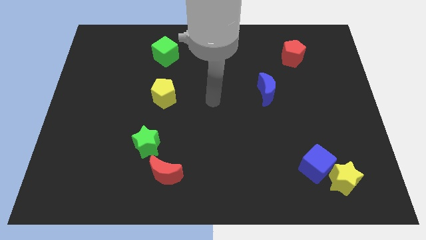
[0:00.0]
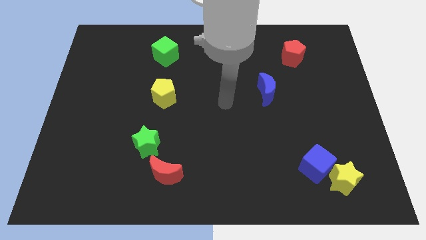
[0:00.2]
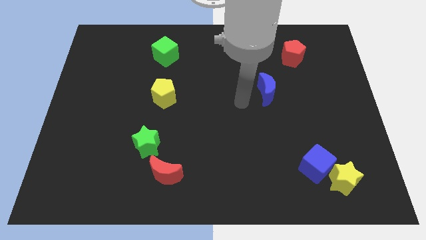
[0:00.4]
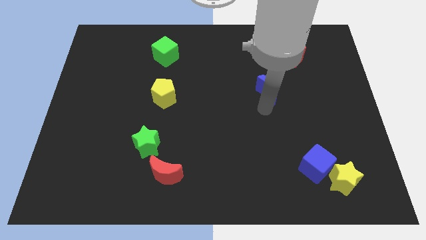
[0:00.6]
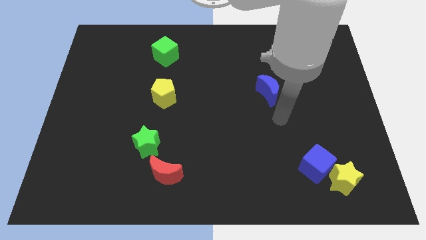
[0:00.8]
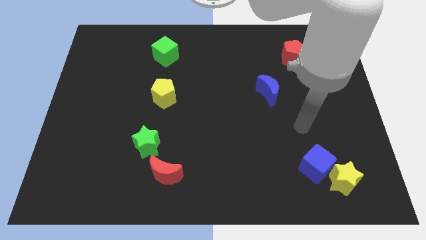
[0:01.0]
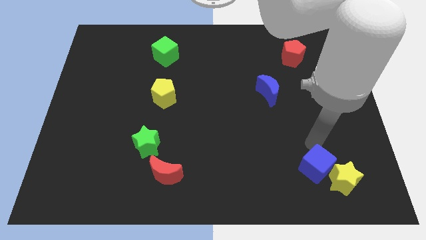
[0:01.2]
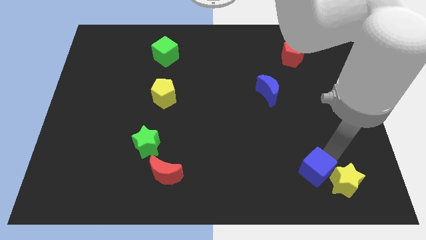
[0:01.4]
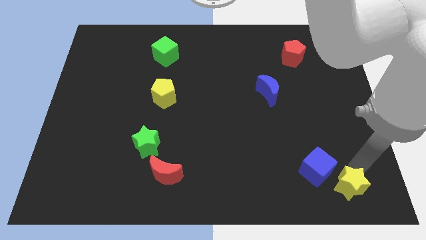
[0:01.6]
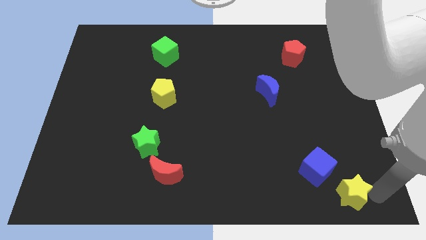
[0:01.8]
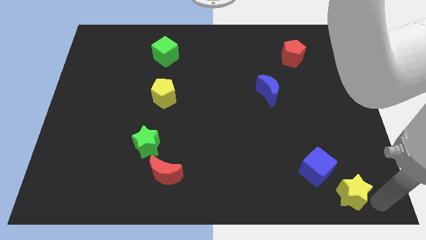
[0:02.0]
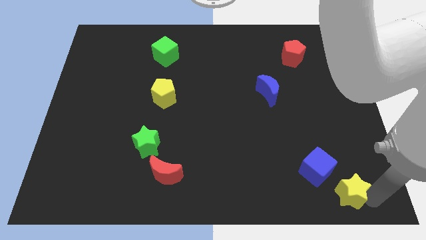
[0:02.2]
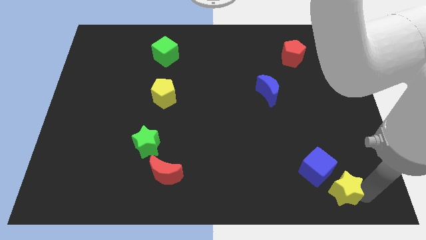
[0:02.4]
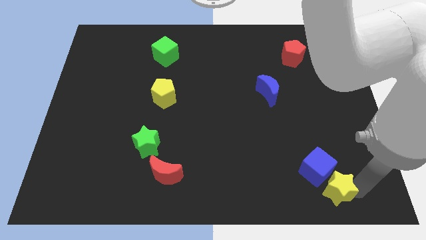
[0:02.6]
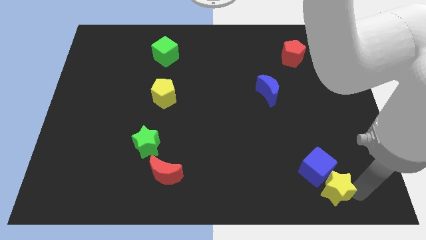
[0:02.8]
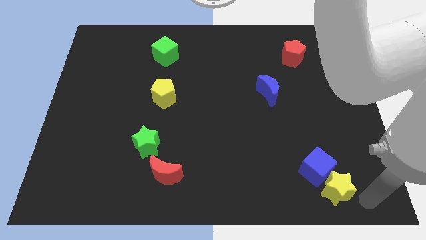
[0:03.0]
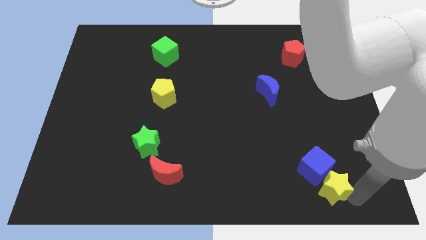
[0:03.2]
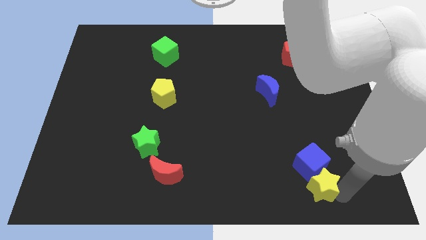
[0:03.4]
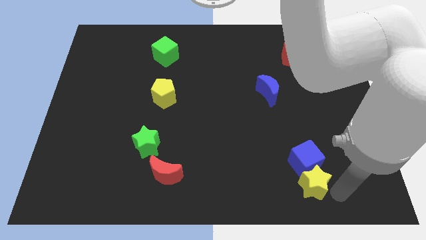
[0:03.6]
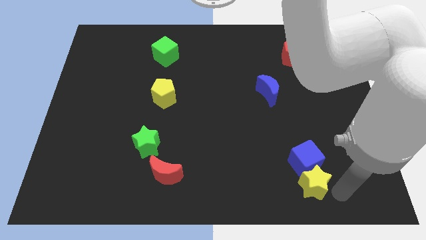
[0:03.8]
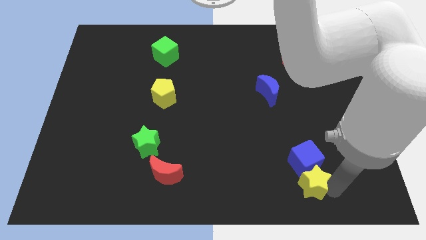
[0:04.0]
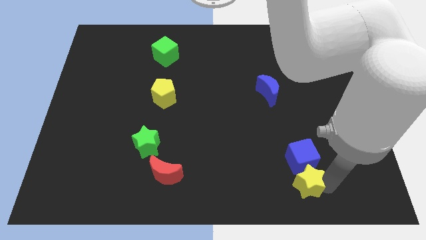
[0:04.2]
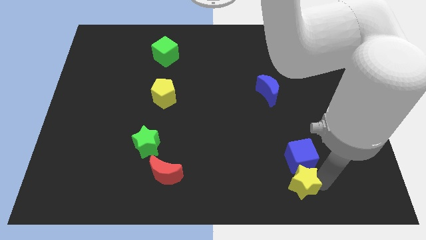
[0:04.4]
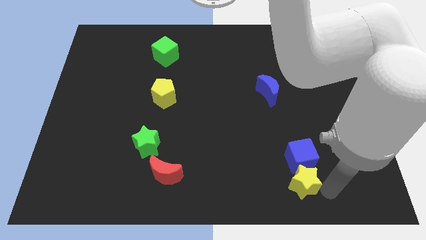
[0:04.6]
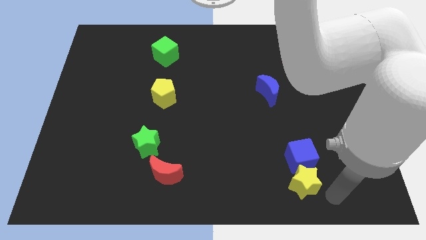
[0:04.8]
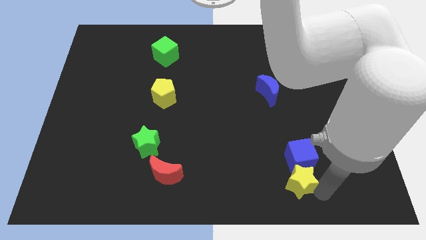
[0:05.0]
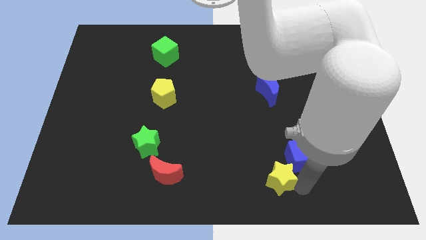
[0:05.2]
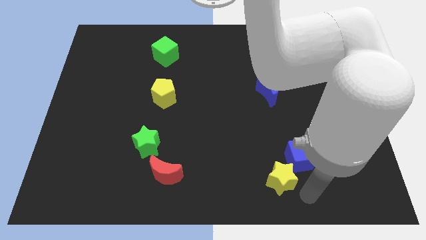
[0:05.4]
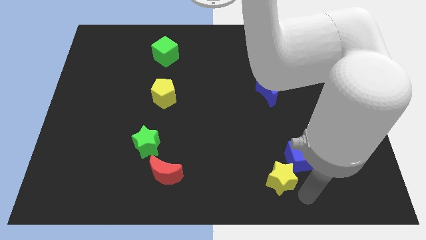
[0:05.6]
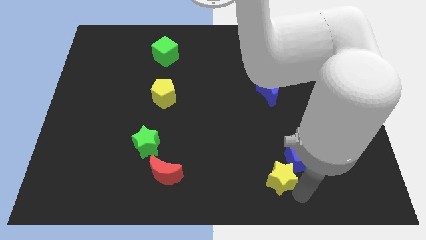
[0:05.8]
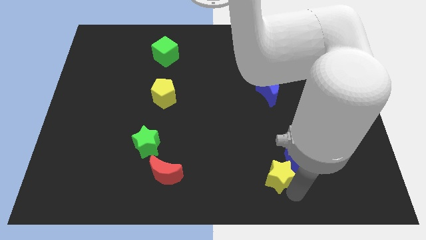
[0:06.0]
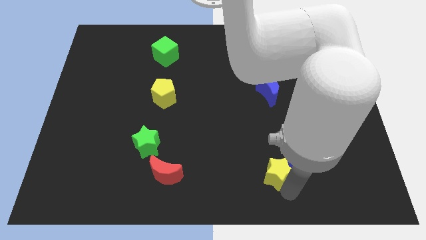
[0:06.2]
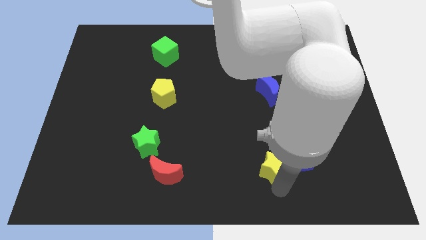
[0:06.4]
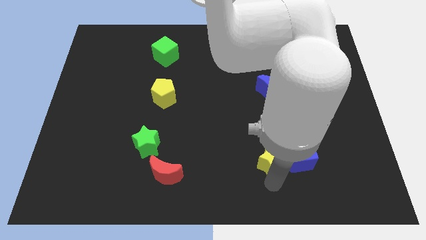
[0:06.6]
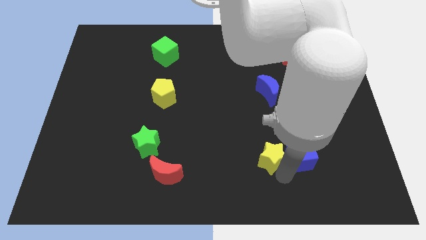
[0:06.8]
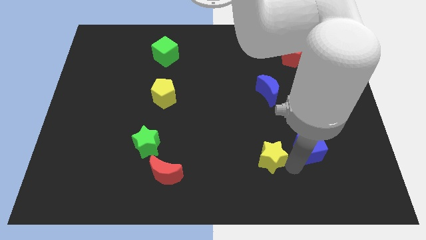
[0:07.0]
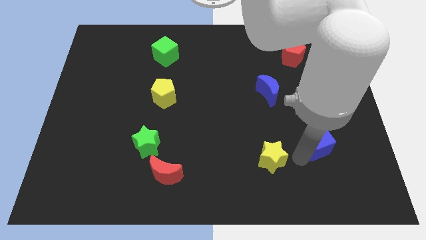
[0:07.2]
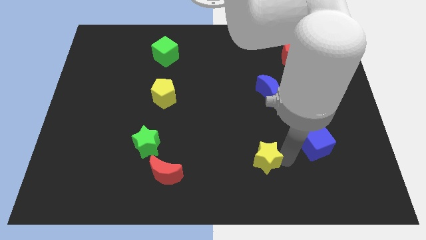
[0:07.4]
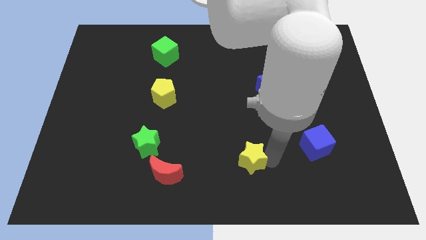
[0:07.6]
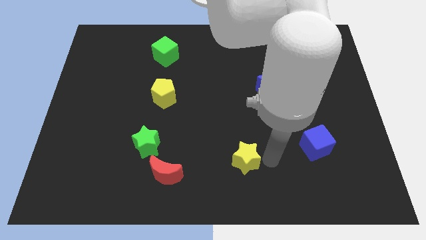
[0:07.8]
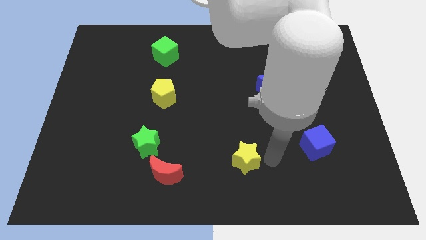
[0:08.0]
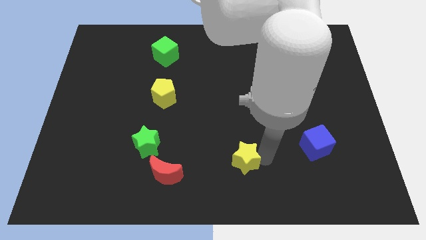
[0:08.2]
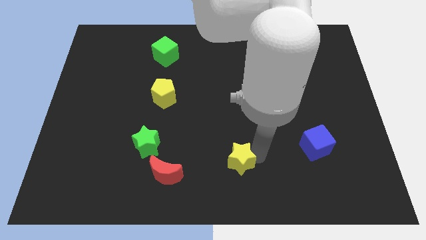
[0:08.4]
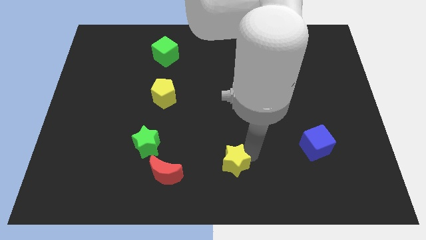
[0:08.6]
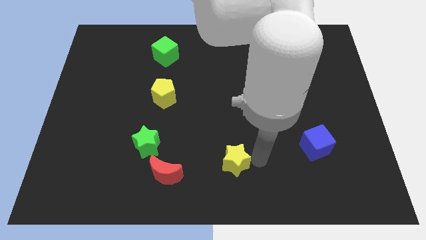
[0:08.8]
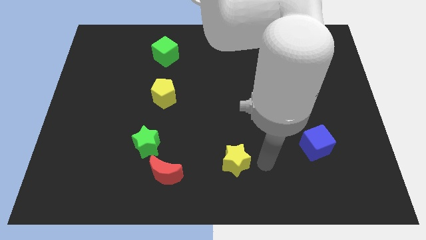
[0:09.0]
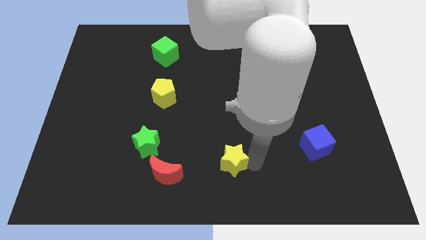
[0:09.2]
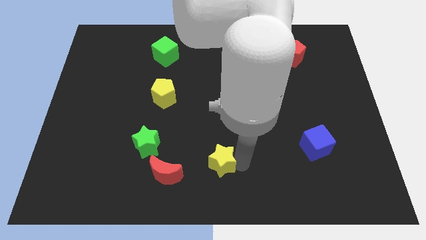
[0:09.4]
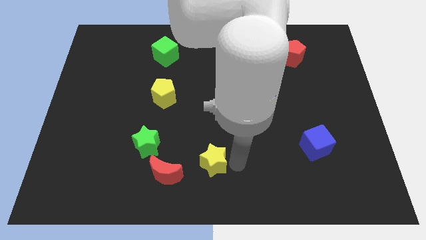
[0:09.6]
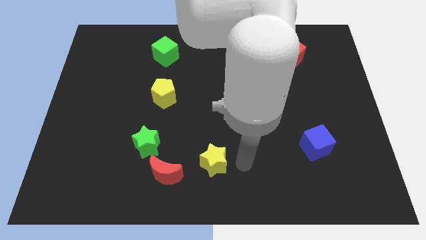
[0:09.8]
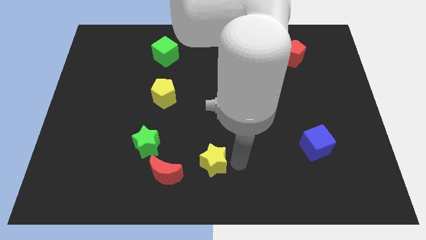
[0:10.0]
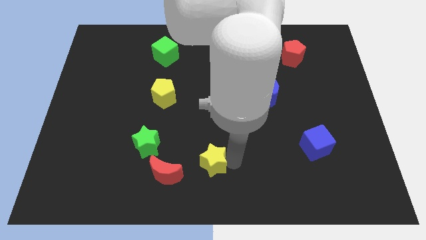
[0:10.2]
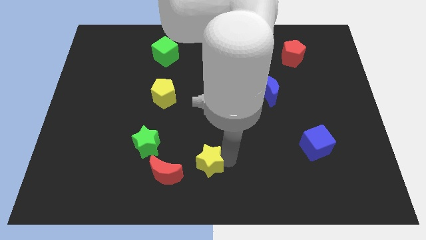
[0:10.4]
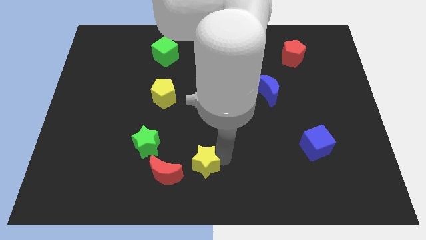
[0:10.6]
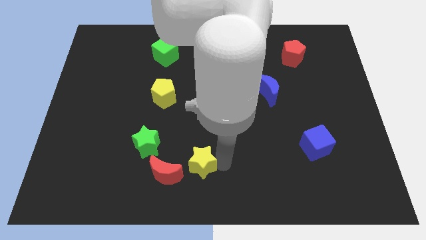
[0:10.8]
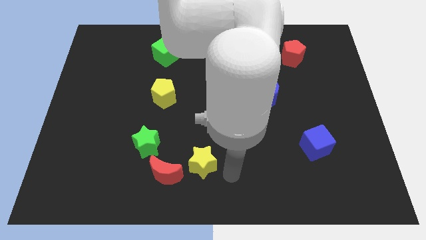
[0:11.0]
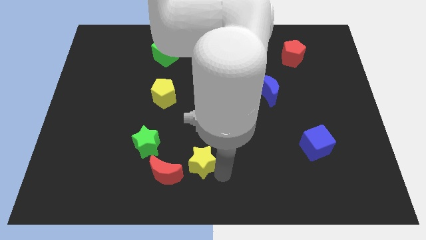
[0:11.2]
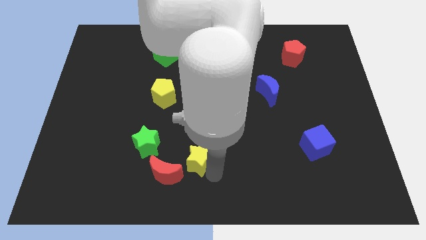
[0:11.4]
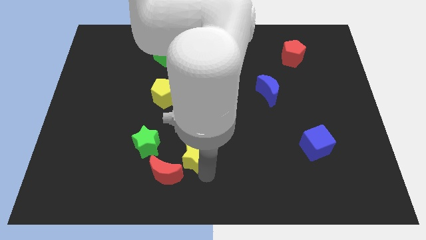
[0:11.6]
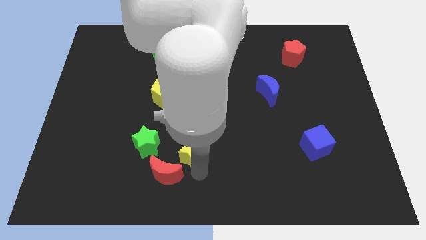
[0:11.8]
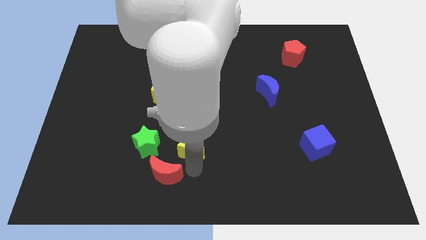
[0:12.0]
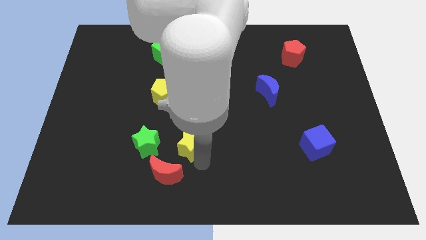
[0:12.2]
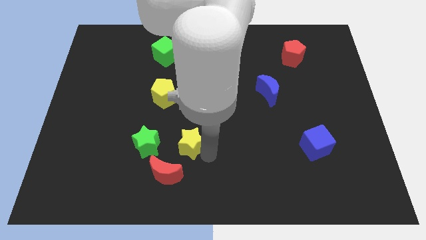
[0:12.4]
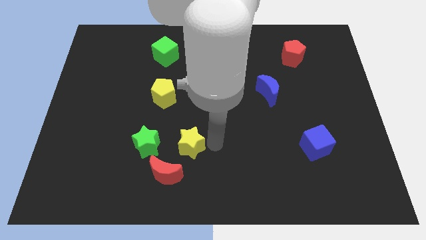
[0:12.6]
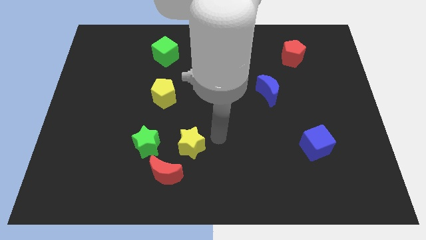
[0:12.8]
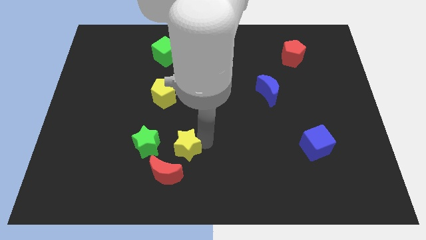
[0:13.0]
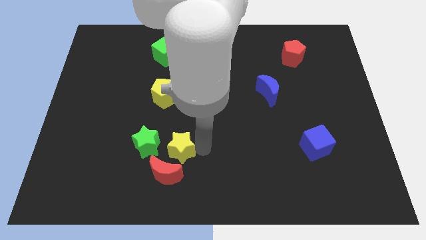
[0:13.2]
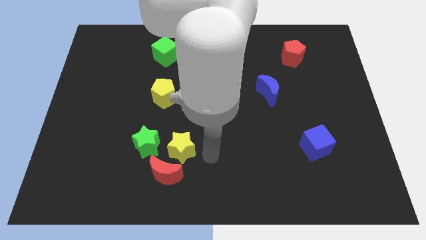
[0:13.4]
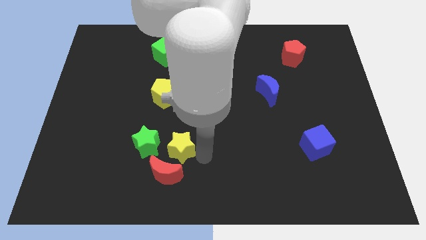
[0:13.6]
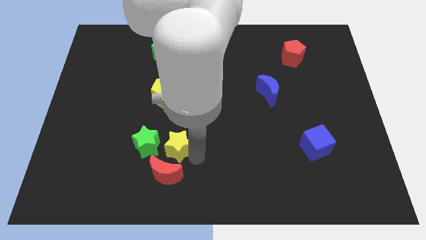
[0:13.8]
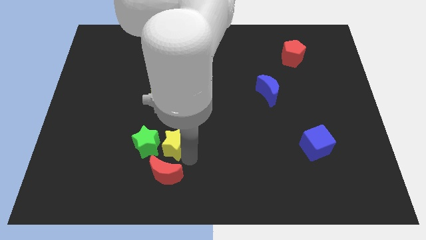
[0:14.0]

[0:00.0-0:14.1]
move the yellow star to the green star

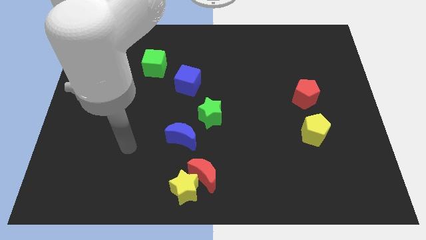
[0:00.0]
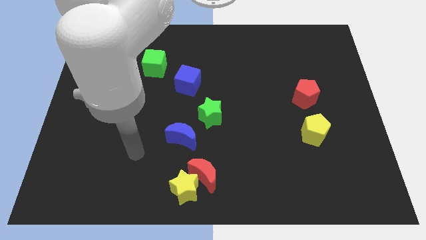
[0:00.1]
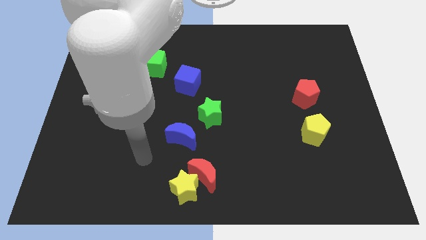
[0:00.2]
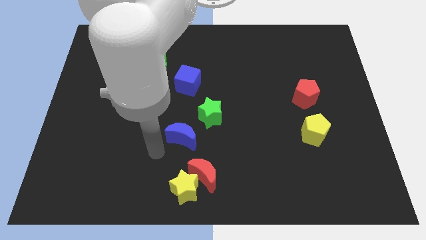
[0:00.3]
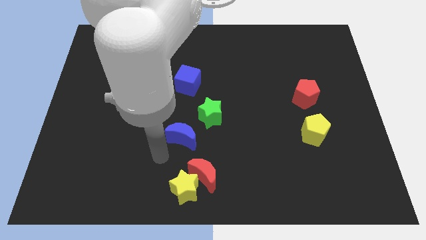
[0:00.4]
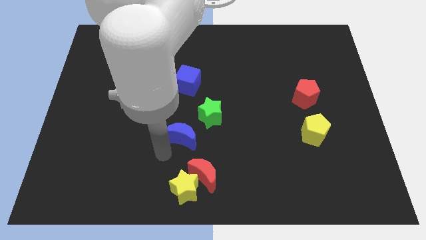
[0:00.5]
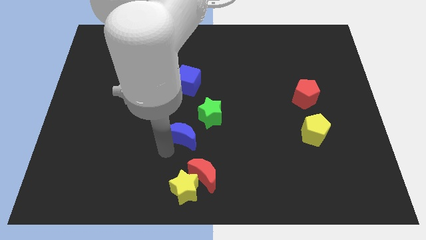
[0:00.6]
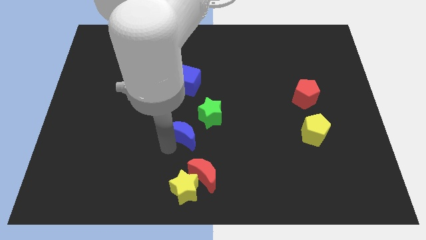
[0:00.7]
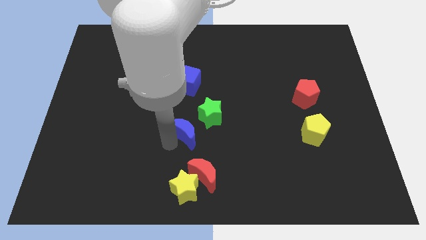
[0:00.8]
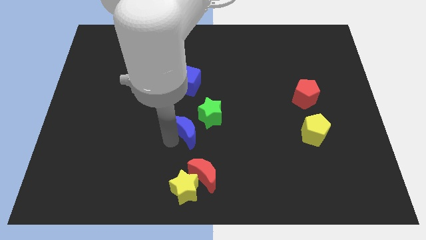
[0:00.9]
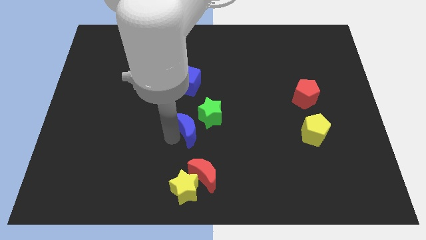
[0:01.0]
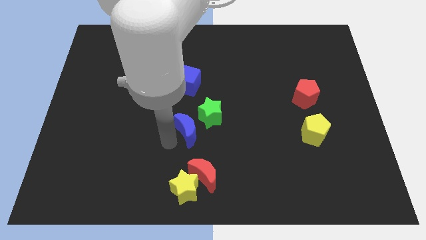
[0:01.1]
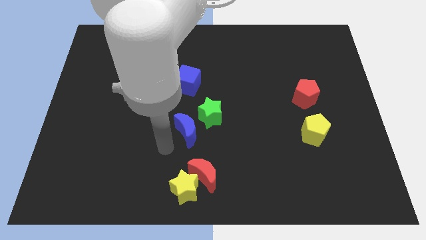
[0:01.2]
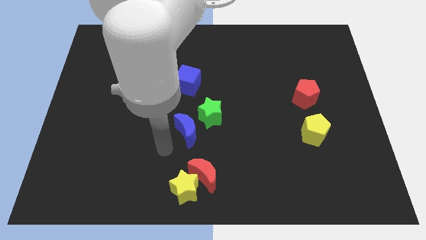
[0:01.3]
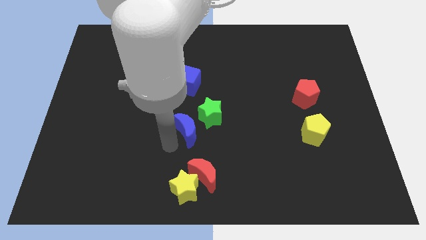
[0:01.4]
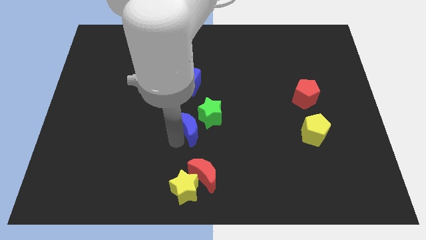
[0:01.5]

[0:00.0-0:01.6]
slide the blue moon to the green star
